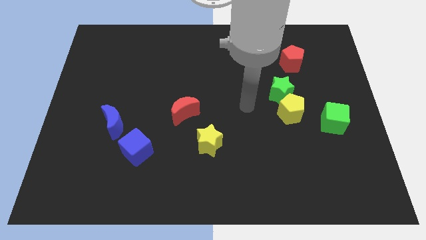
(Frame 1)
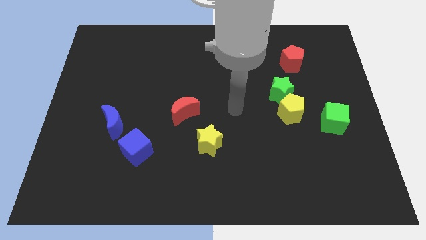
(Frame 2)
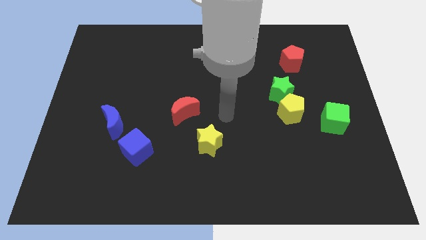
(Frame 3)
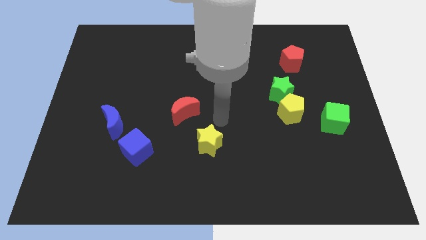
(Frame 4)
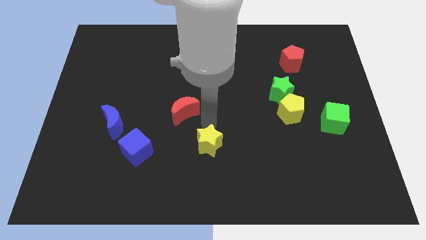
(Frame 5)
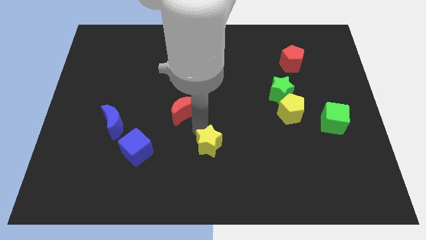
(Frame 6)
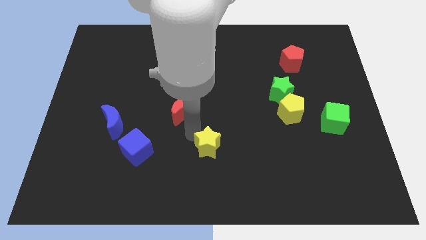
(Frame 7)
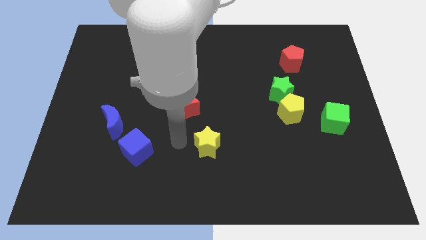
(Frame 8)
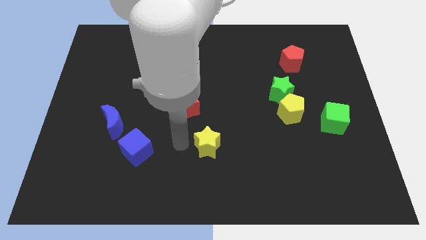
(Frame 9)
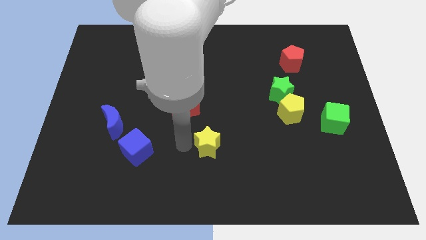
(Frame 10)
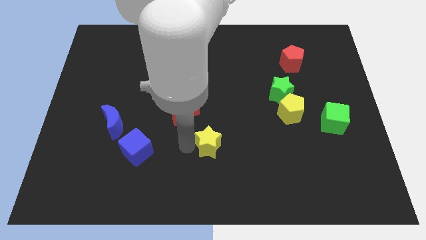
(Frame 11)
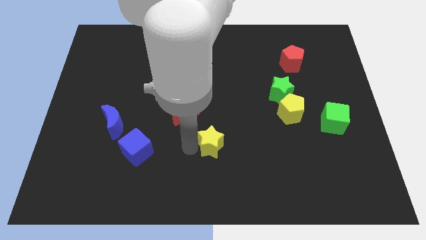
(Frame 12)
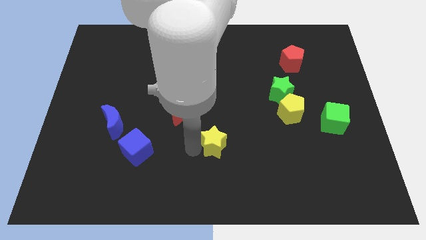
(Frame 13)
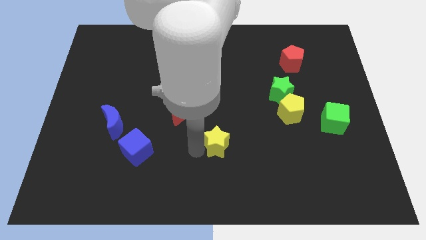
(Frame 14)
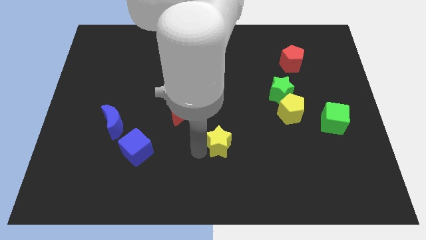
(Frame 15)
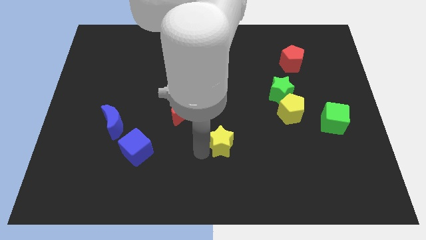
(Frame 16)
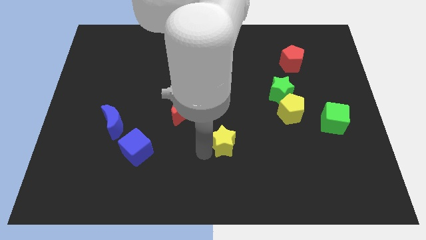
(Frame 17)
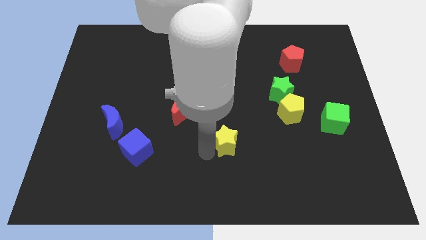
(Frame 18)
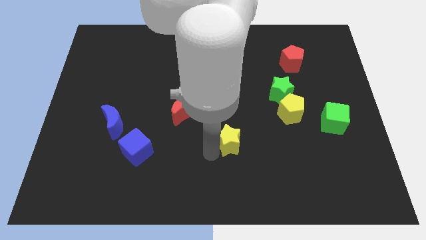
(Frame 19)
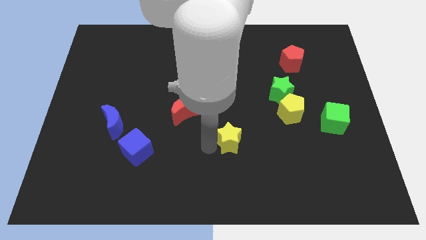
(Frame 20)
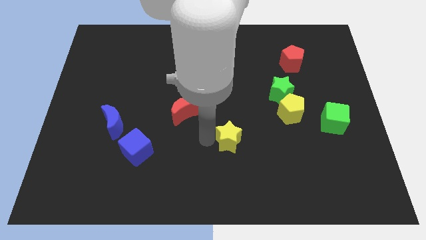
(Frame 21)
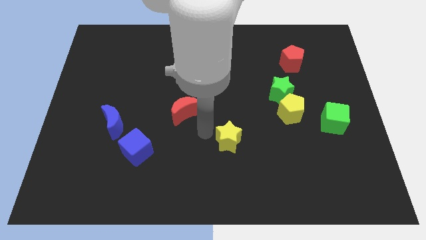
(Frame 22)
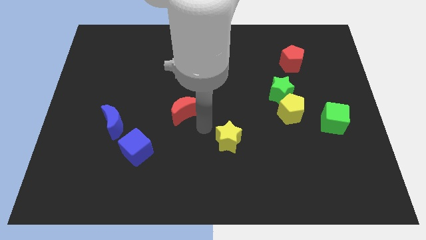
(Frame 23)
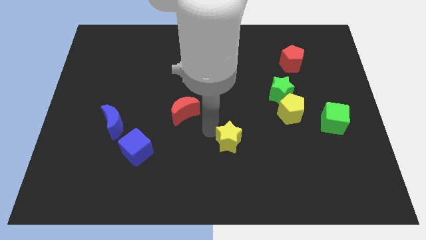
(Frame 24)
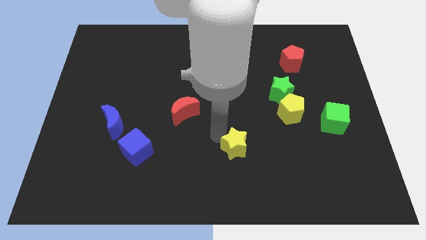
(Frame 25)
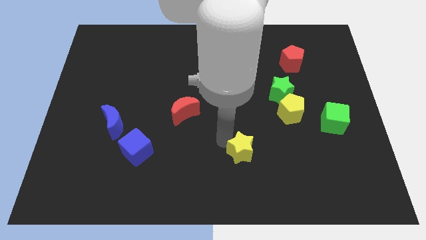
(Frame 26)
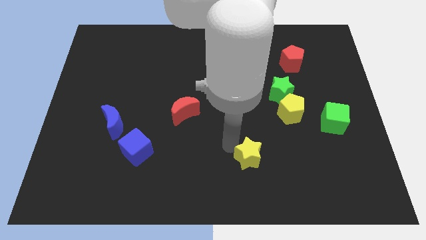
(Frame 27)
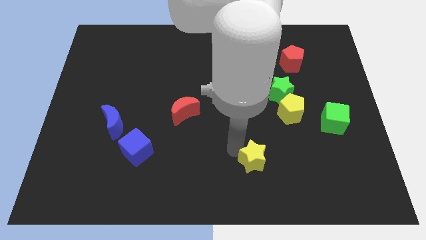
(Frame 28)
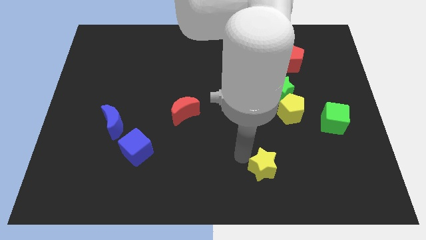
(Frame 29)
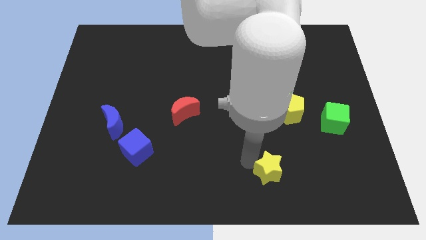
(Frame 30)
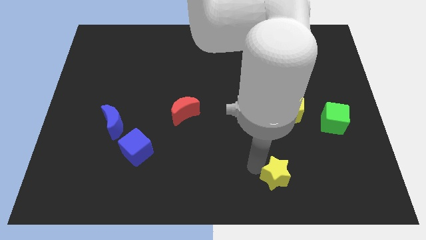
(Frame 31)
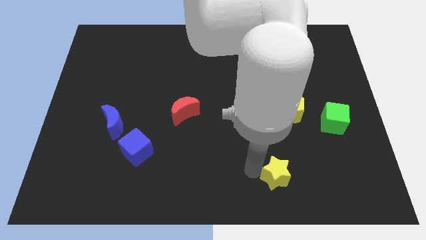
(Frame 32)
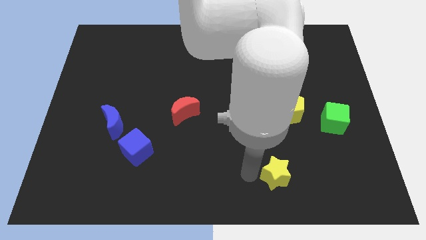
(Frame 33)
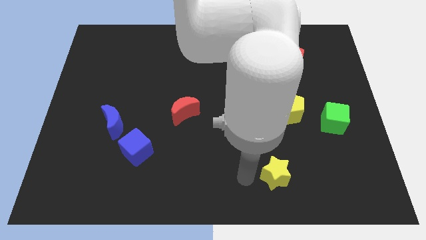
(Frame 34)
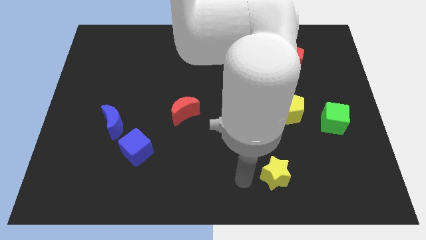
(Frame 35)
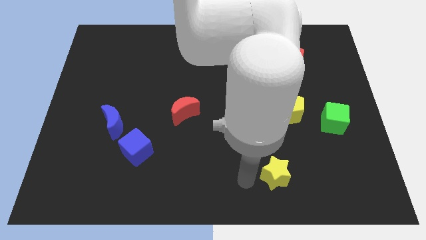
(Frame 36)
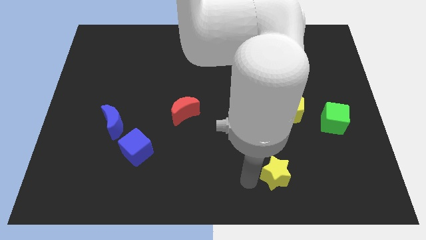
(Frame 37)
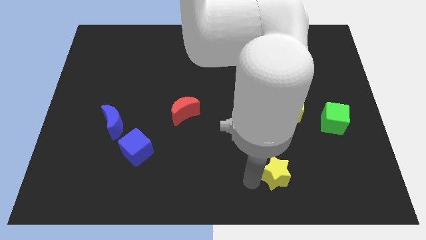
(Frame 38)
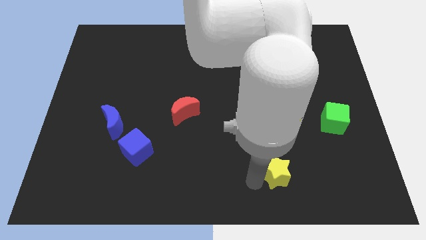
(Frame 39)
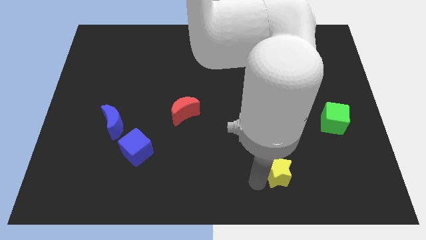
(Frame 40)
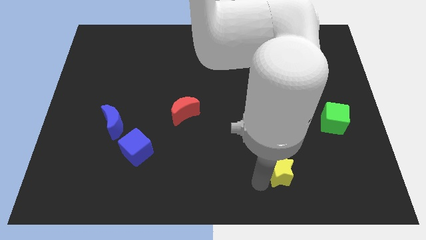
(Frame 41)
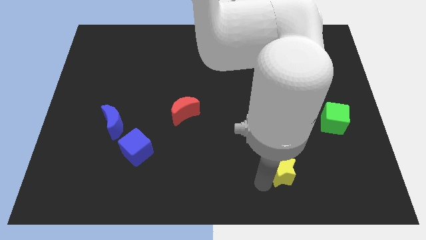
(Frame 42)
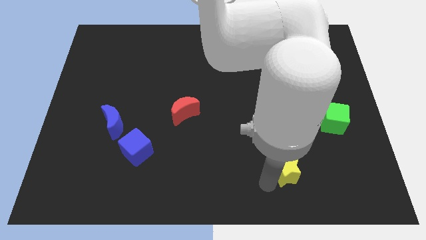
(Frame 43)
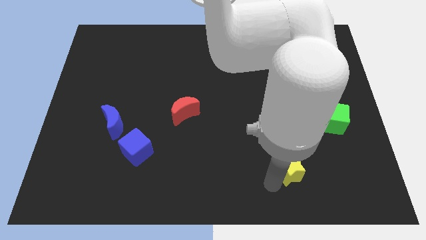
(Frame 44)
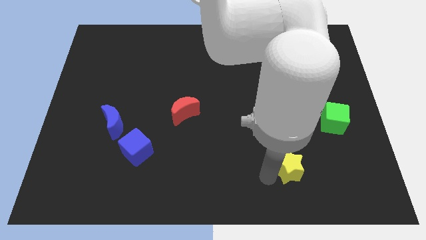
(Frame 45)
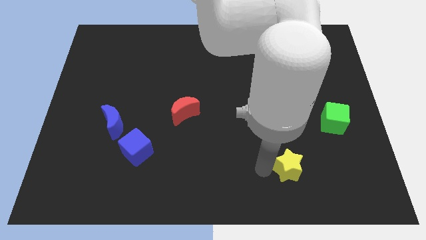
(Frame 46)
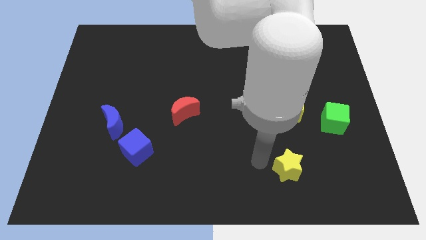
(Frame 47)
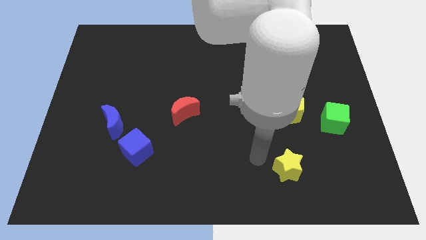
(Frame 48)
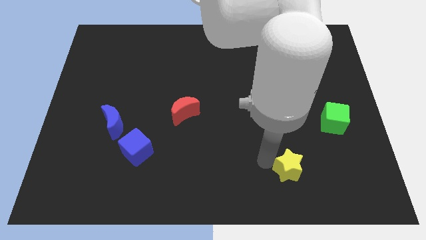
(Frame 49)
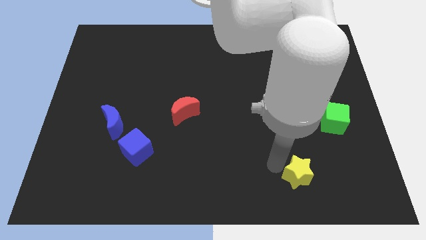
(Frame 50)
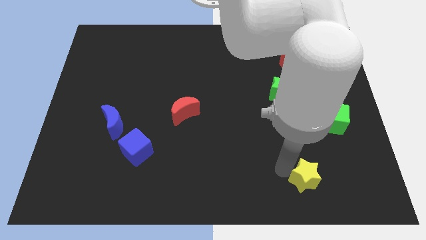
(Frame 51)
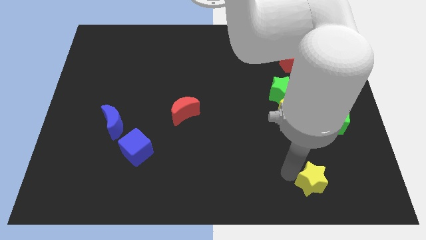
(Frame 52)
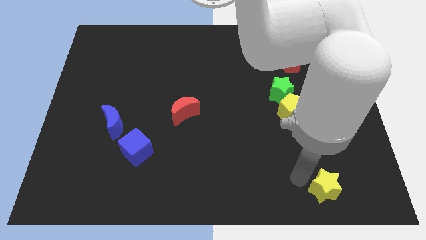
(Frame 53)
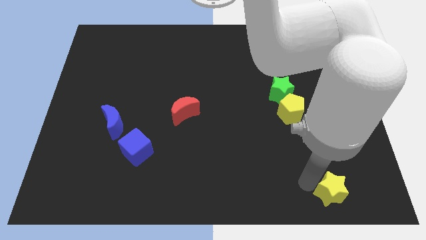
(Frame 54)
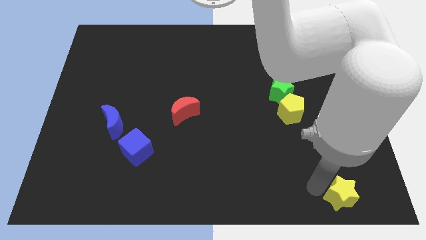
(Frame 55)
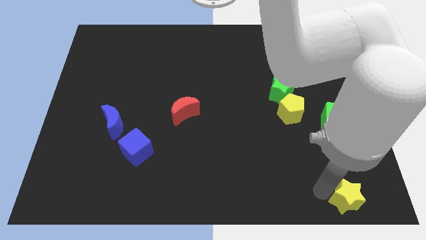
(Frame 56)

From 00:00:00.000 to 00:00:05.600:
slide the yellow star to the bottom right

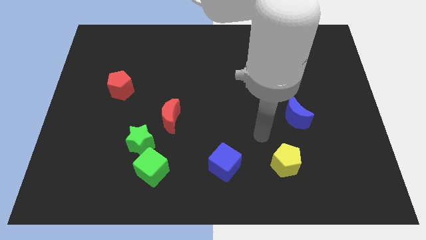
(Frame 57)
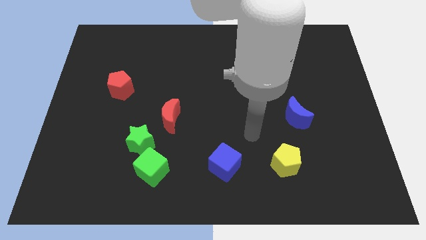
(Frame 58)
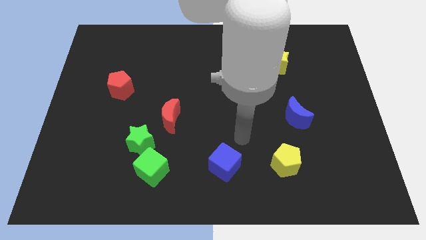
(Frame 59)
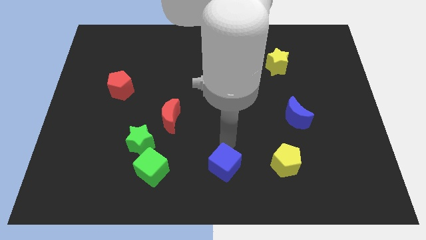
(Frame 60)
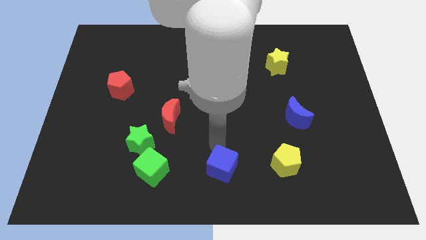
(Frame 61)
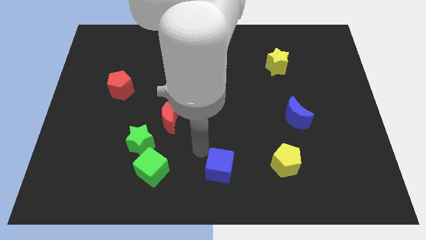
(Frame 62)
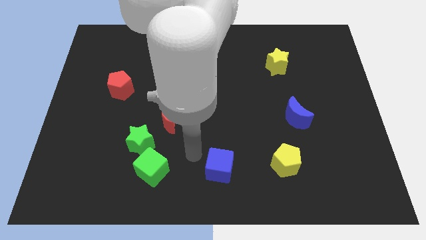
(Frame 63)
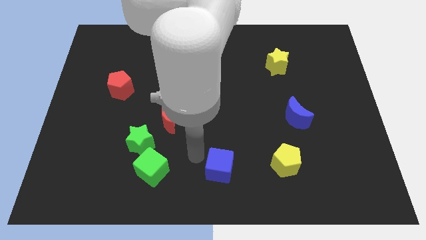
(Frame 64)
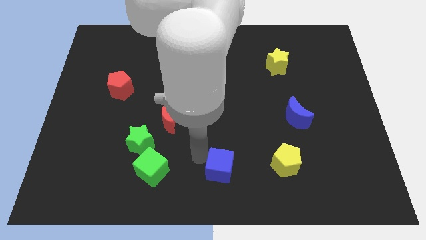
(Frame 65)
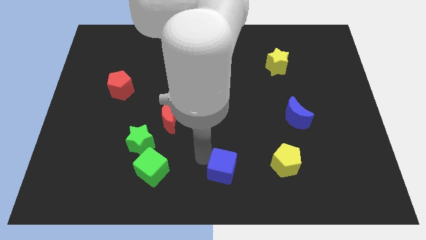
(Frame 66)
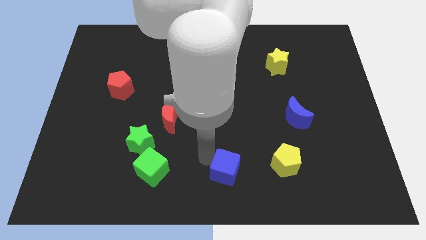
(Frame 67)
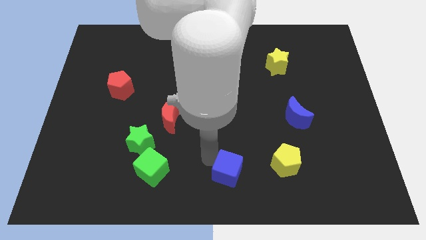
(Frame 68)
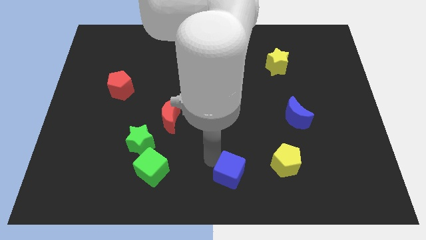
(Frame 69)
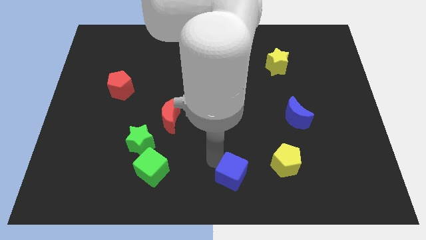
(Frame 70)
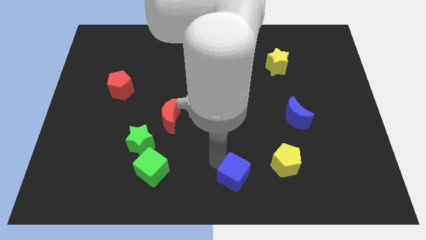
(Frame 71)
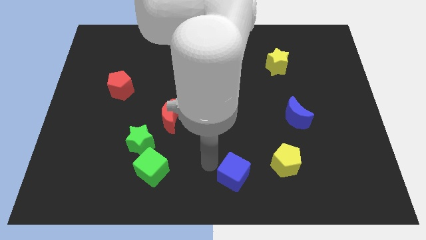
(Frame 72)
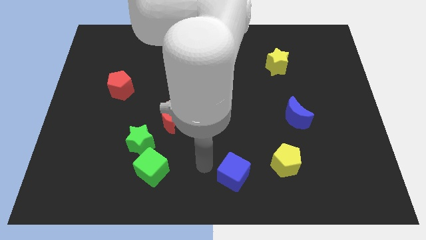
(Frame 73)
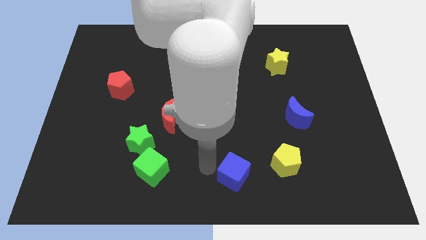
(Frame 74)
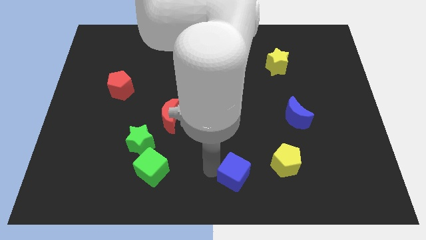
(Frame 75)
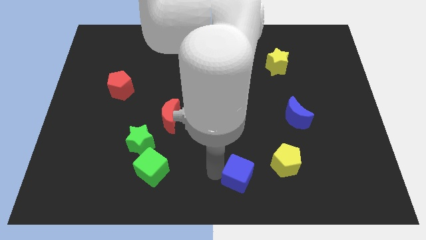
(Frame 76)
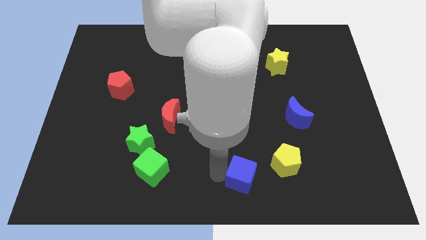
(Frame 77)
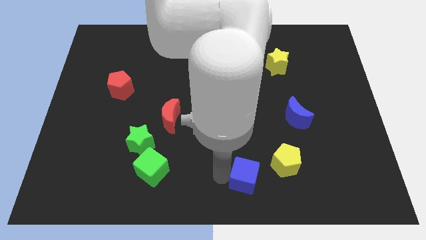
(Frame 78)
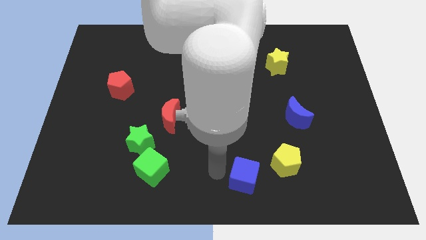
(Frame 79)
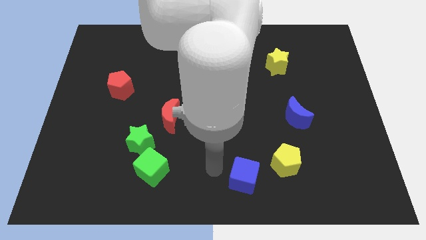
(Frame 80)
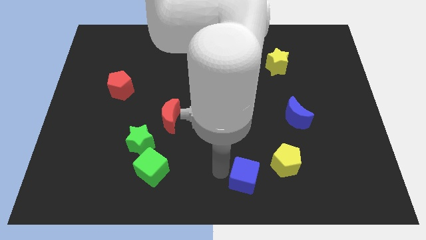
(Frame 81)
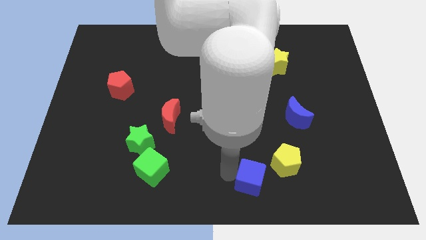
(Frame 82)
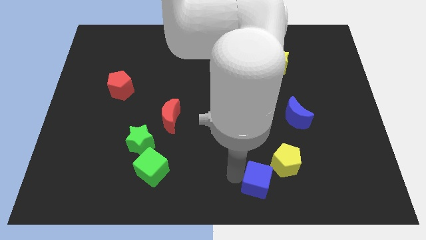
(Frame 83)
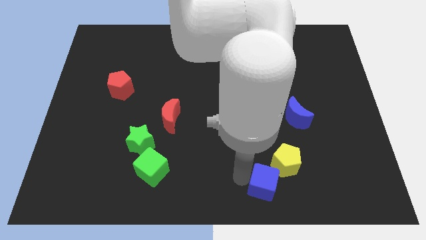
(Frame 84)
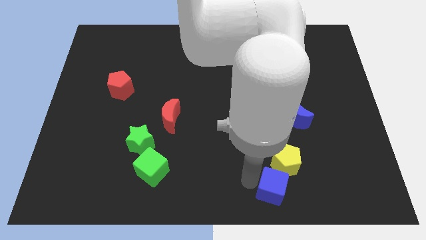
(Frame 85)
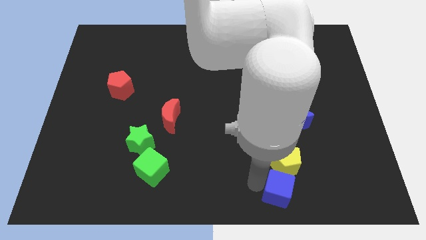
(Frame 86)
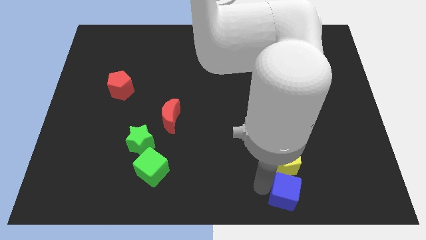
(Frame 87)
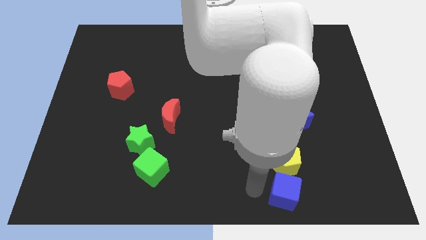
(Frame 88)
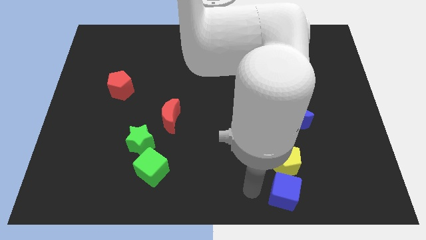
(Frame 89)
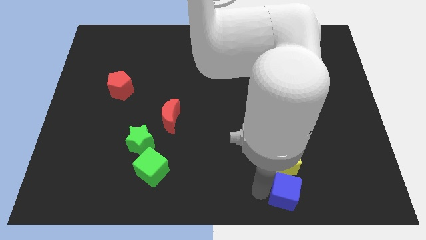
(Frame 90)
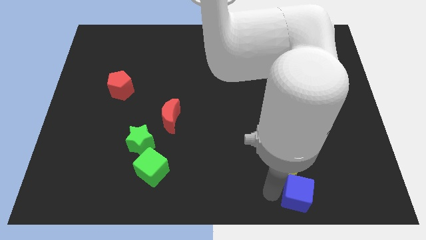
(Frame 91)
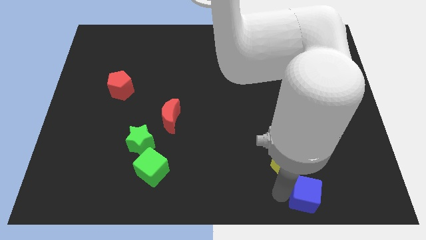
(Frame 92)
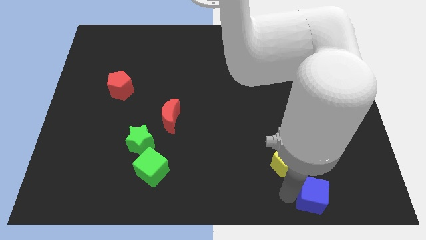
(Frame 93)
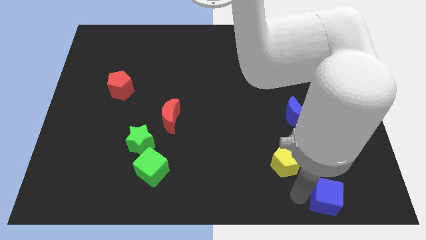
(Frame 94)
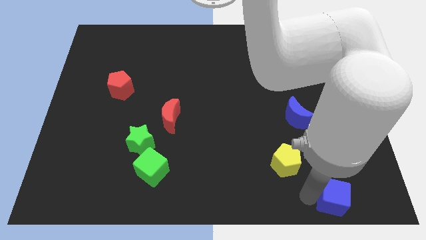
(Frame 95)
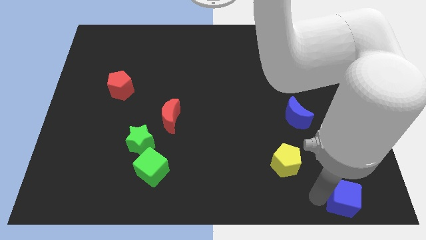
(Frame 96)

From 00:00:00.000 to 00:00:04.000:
move the blue cube to the bottom right corner
